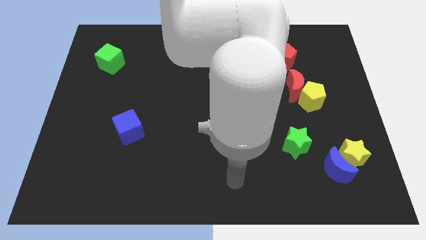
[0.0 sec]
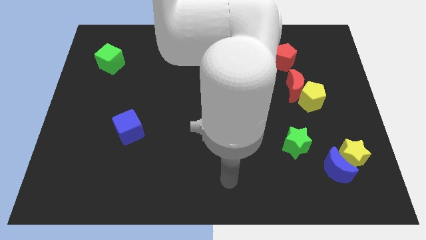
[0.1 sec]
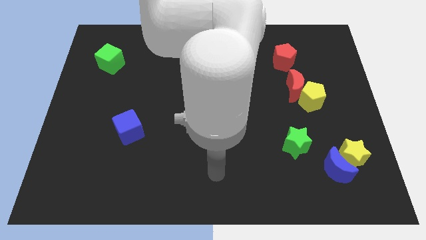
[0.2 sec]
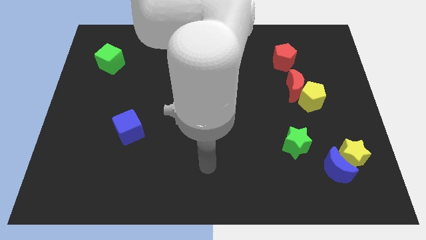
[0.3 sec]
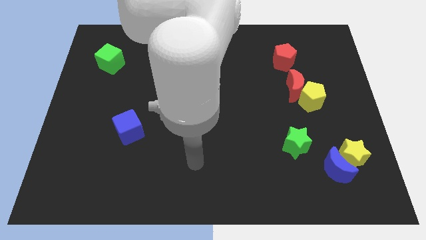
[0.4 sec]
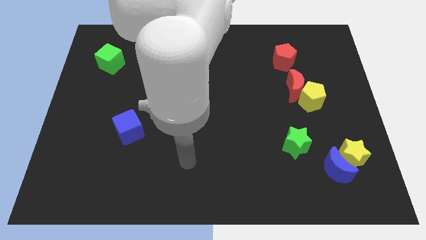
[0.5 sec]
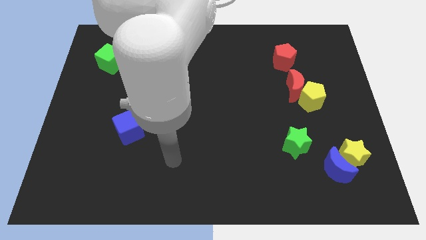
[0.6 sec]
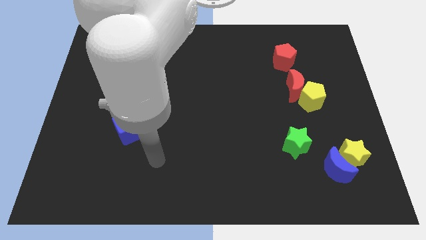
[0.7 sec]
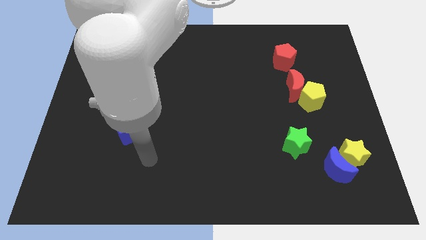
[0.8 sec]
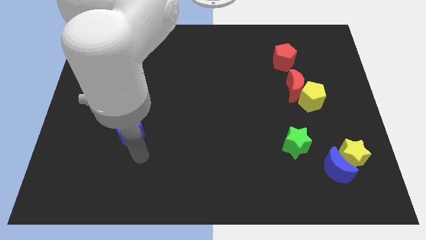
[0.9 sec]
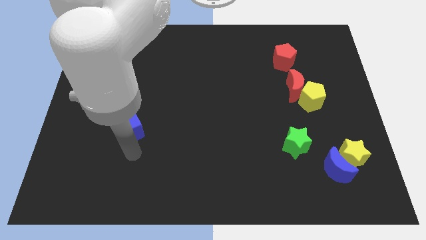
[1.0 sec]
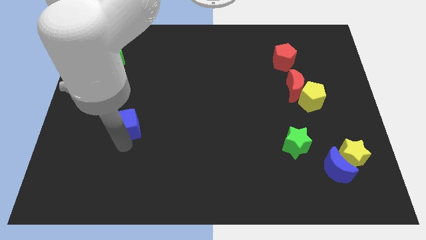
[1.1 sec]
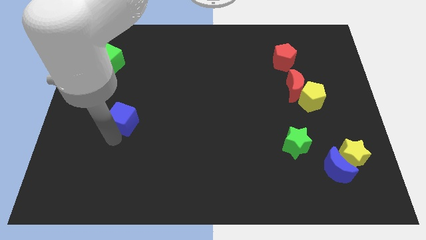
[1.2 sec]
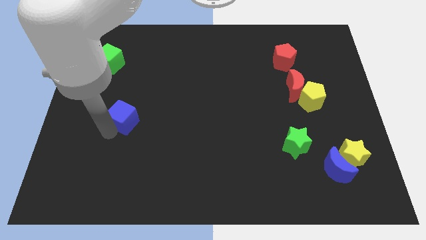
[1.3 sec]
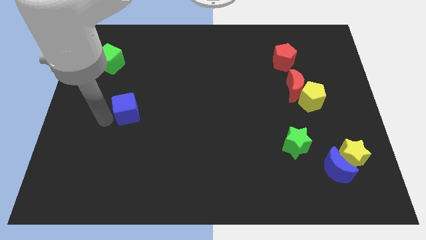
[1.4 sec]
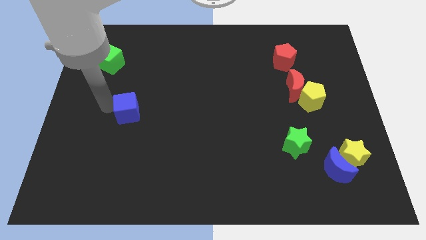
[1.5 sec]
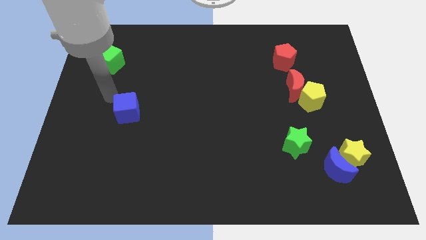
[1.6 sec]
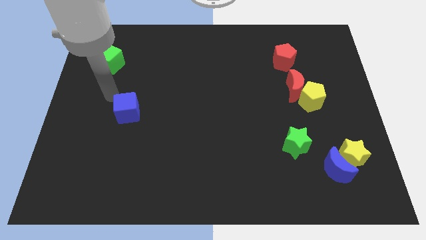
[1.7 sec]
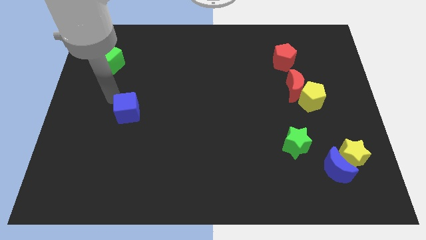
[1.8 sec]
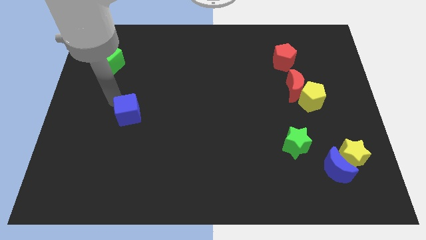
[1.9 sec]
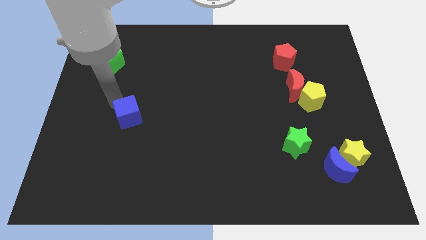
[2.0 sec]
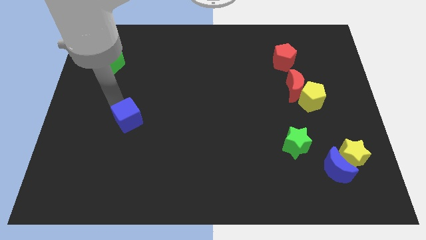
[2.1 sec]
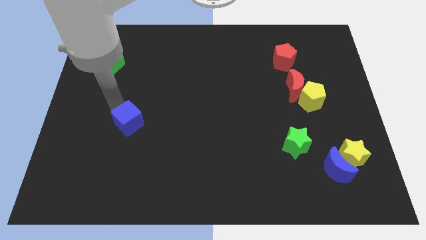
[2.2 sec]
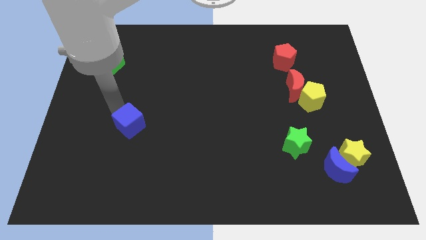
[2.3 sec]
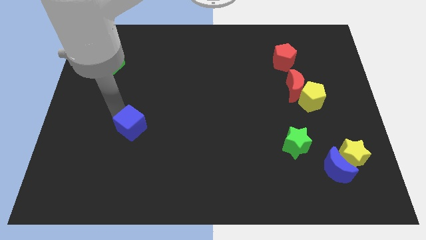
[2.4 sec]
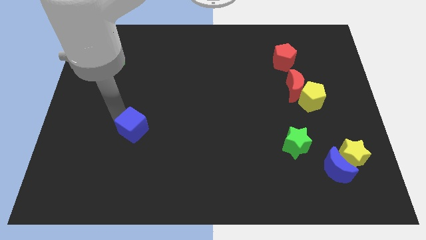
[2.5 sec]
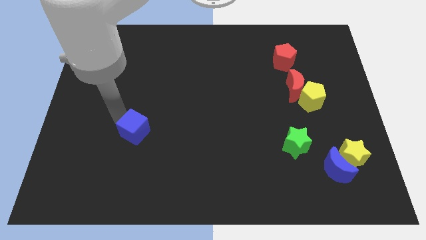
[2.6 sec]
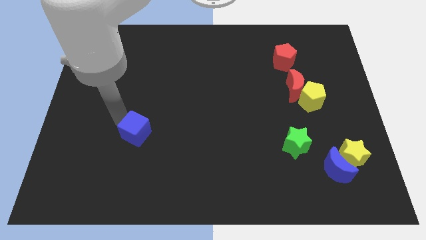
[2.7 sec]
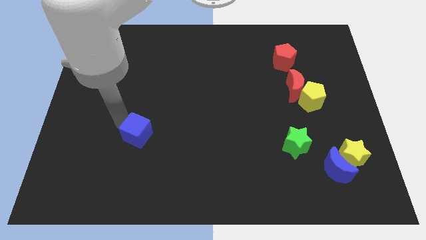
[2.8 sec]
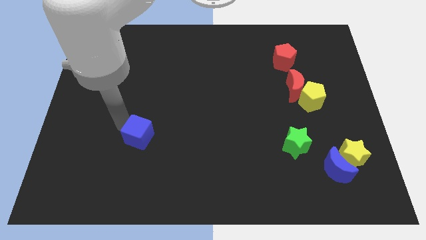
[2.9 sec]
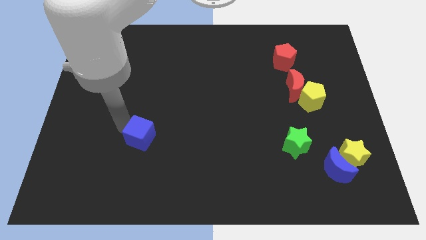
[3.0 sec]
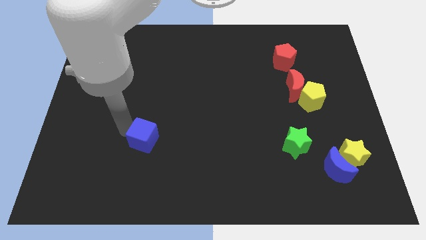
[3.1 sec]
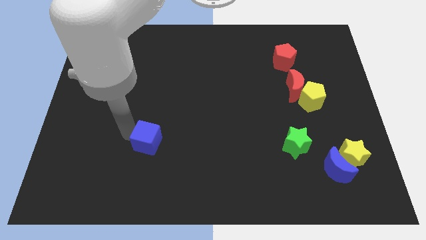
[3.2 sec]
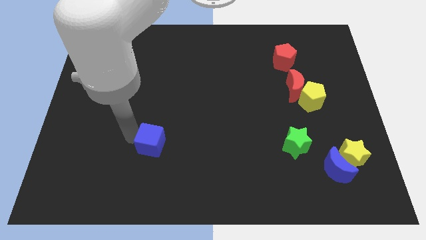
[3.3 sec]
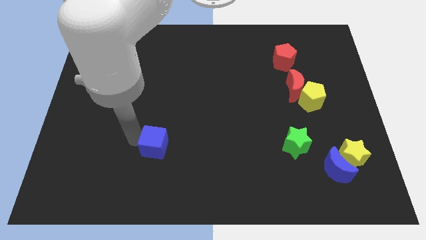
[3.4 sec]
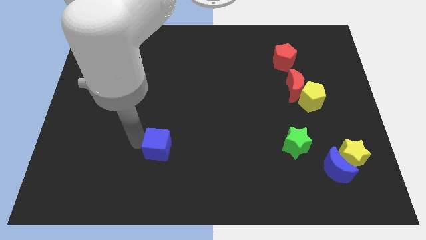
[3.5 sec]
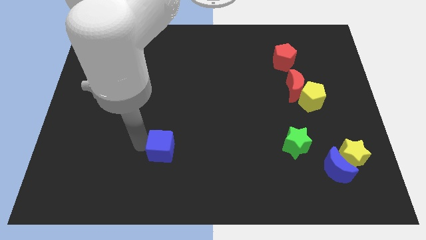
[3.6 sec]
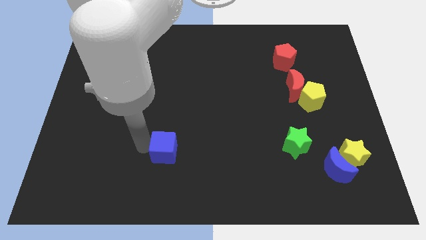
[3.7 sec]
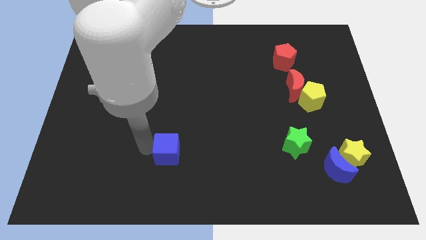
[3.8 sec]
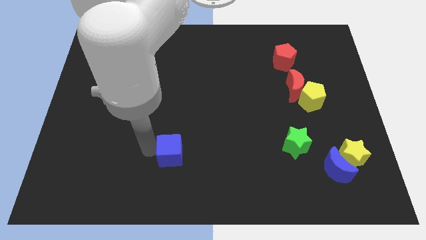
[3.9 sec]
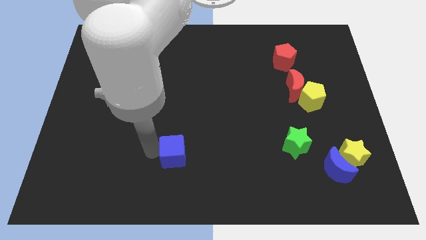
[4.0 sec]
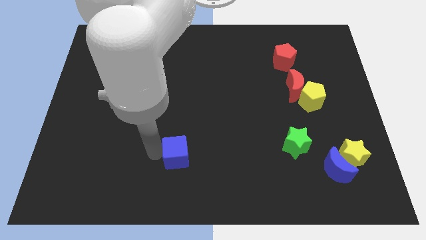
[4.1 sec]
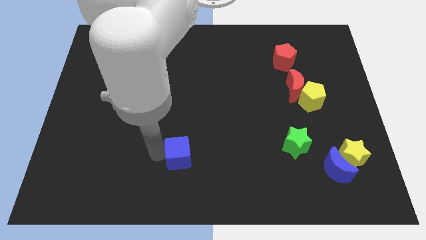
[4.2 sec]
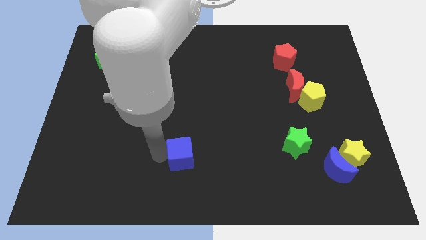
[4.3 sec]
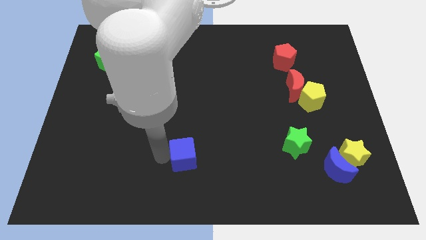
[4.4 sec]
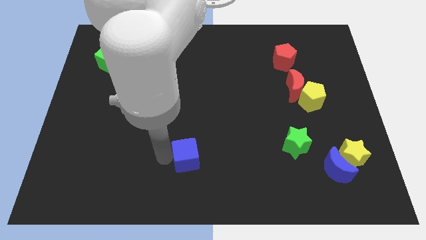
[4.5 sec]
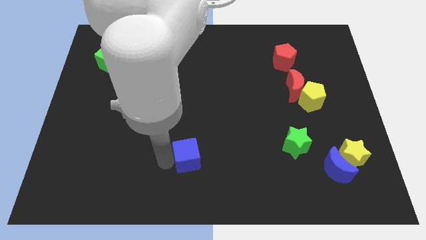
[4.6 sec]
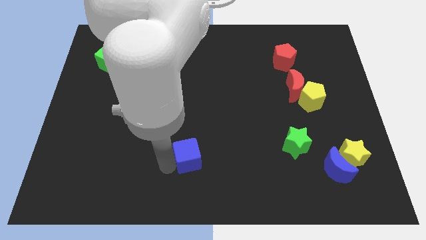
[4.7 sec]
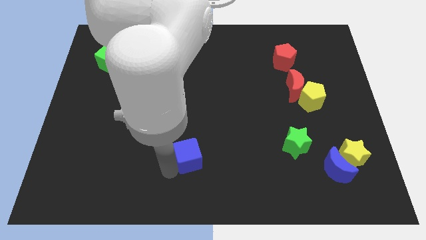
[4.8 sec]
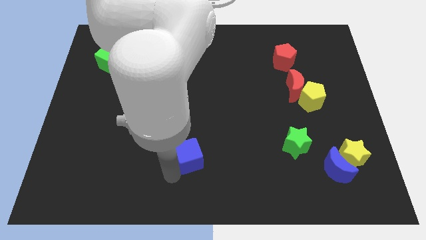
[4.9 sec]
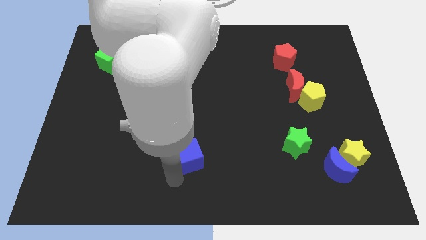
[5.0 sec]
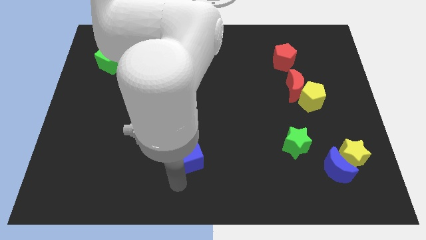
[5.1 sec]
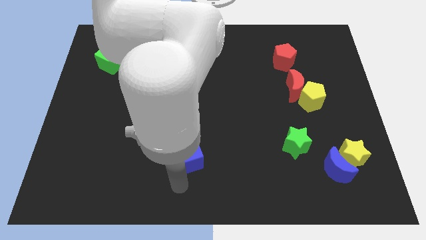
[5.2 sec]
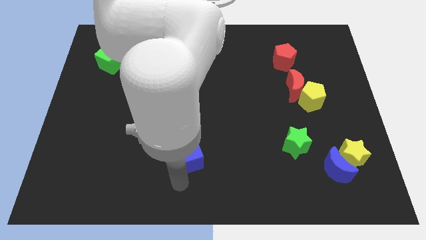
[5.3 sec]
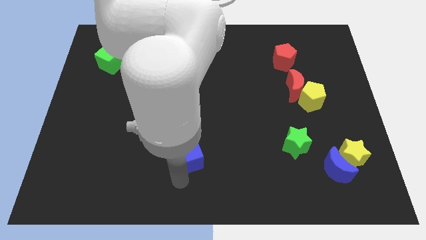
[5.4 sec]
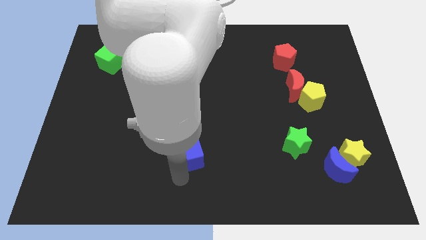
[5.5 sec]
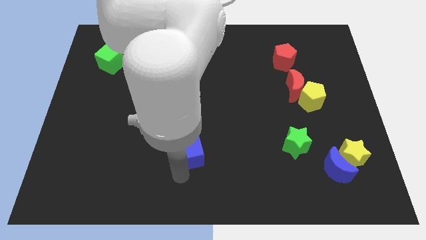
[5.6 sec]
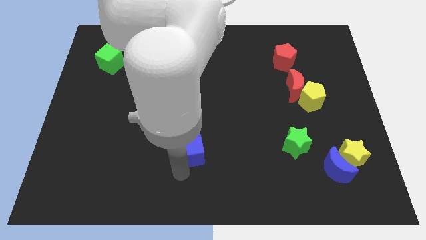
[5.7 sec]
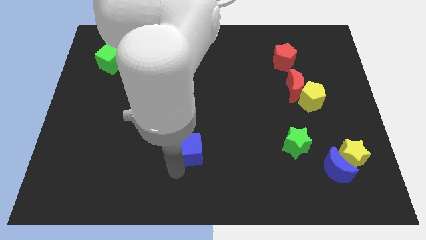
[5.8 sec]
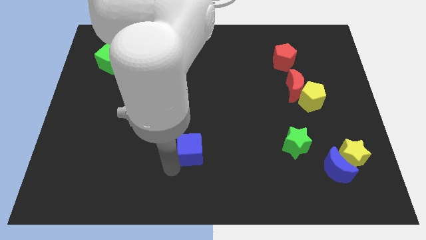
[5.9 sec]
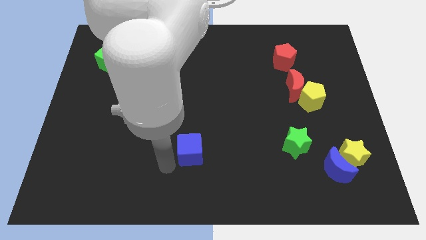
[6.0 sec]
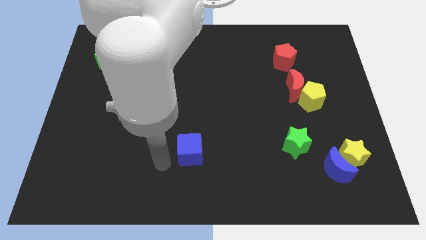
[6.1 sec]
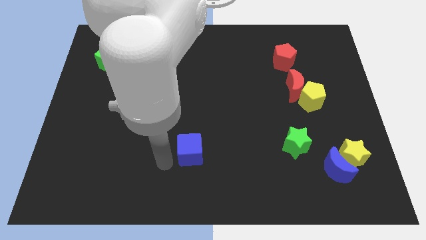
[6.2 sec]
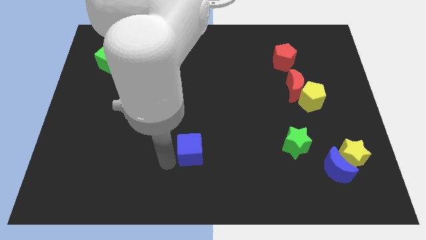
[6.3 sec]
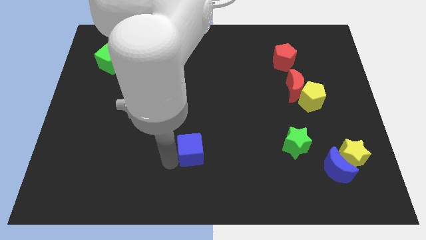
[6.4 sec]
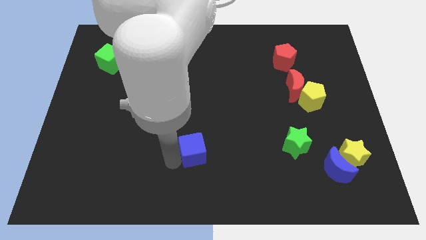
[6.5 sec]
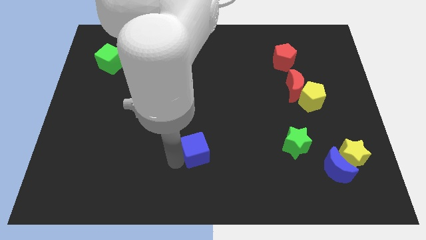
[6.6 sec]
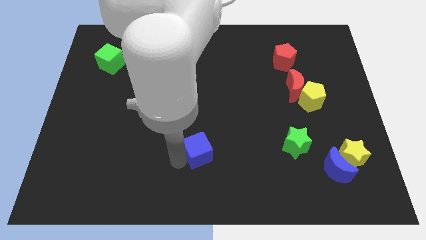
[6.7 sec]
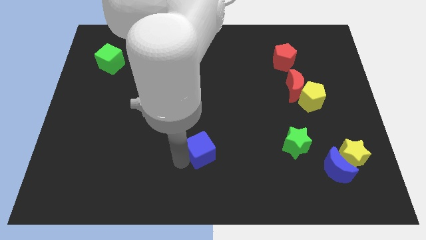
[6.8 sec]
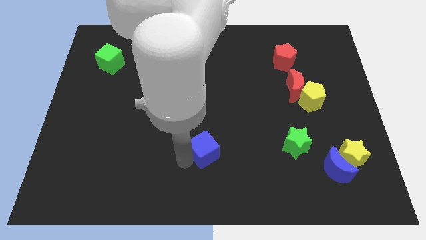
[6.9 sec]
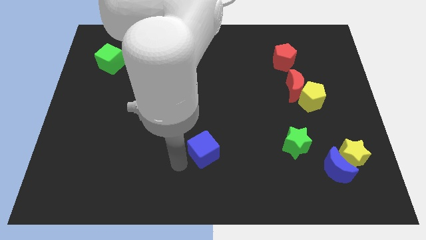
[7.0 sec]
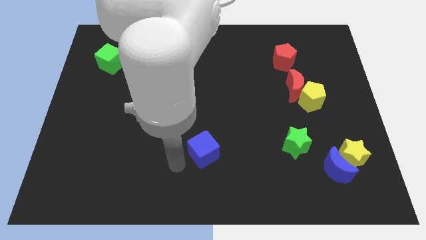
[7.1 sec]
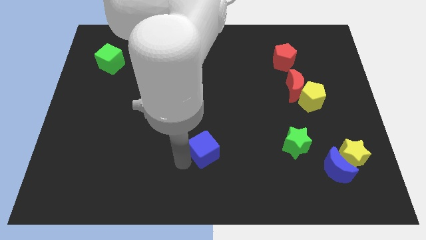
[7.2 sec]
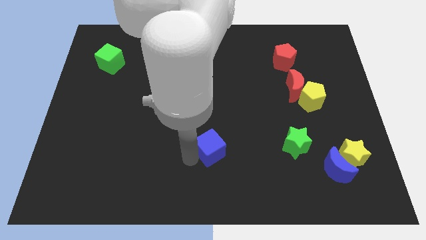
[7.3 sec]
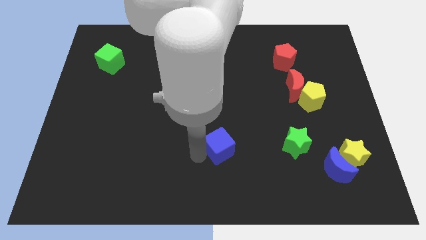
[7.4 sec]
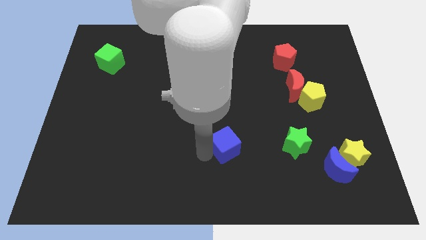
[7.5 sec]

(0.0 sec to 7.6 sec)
push the blue cube to the right

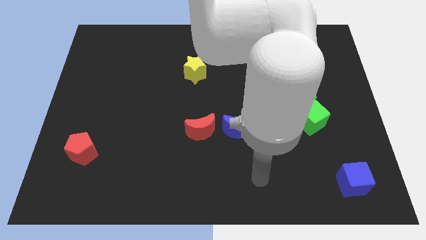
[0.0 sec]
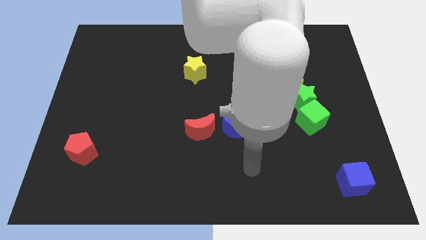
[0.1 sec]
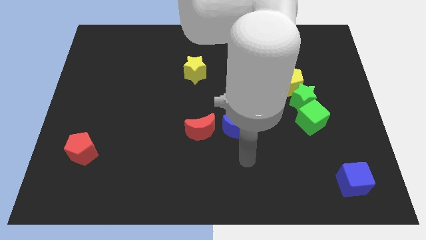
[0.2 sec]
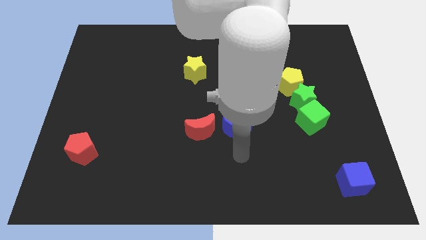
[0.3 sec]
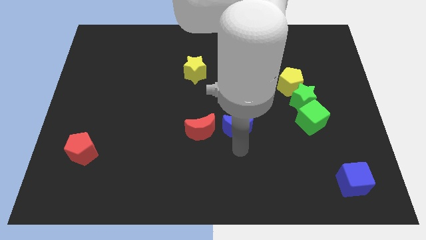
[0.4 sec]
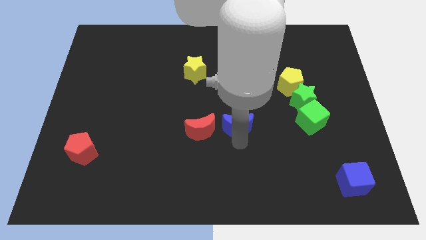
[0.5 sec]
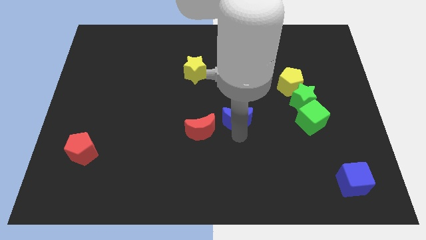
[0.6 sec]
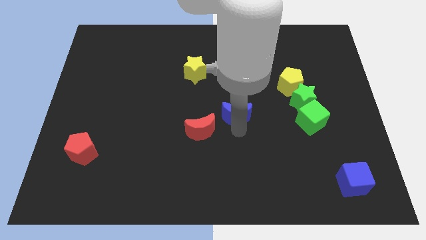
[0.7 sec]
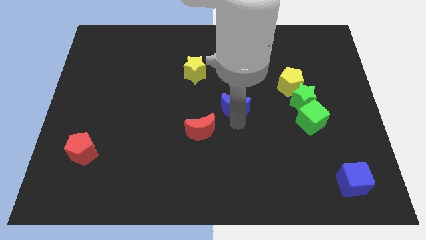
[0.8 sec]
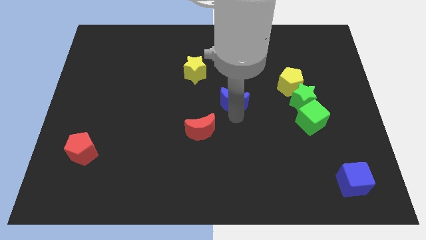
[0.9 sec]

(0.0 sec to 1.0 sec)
slide the blue moon upwards a bit
